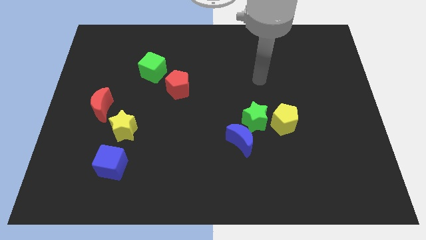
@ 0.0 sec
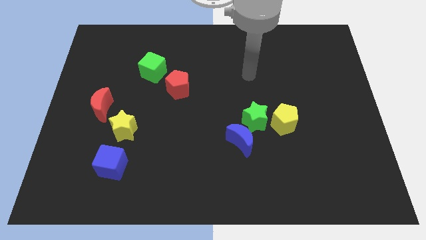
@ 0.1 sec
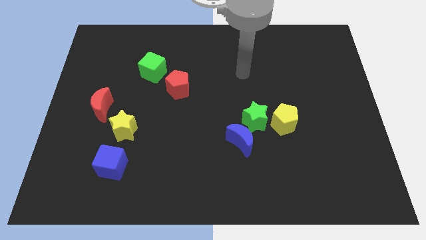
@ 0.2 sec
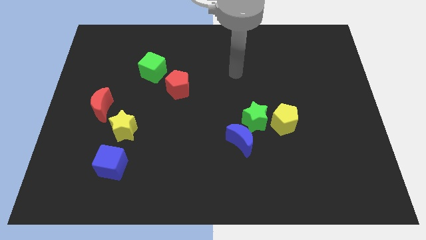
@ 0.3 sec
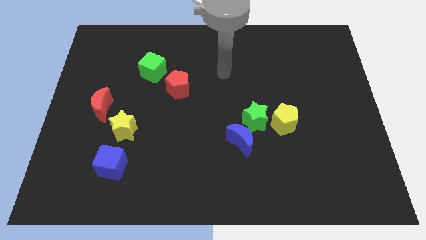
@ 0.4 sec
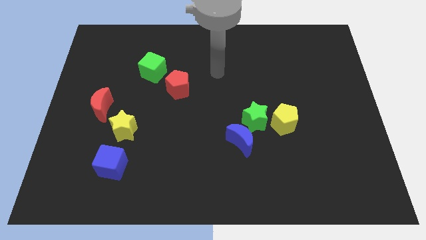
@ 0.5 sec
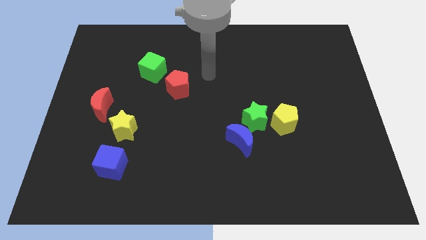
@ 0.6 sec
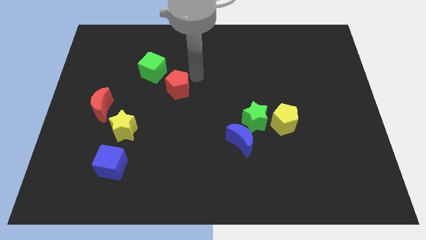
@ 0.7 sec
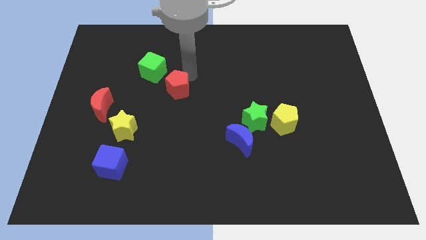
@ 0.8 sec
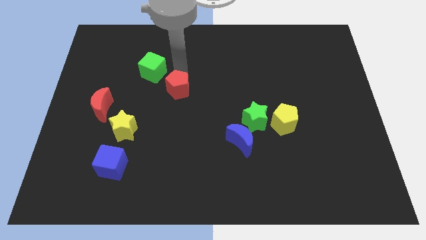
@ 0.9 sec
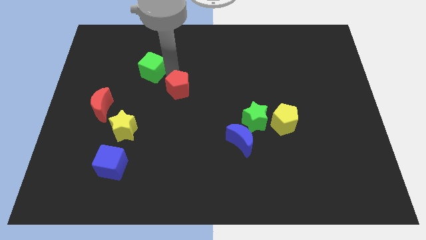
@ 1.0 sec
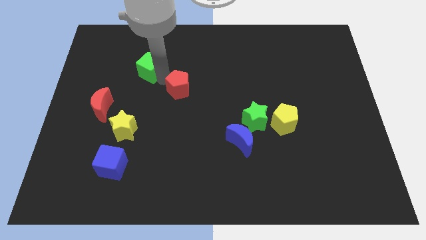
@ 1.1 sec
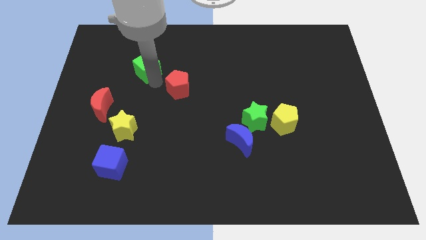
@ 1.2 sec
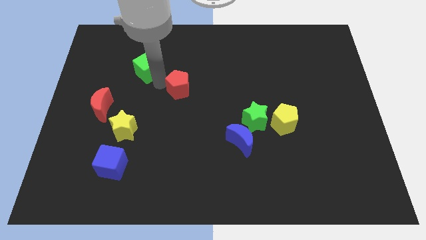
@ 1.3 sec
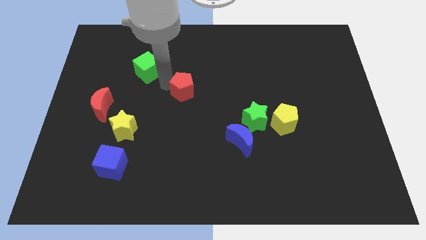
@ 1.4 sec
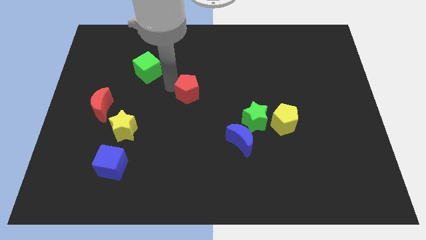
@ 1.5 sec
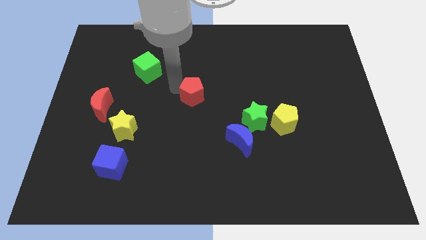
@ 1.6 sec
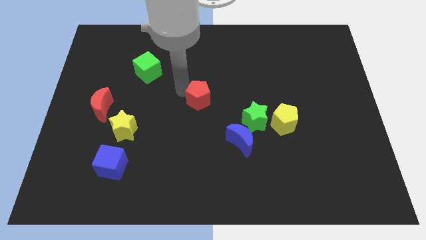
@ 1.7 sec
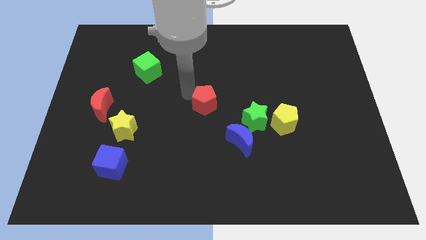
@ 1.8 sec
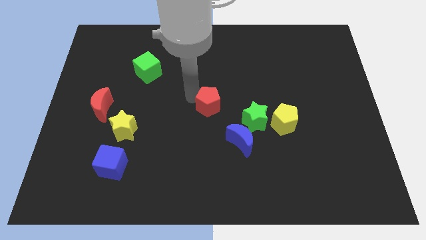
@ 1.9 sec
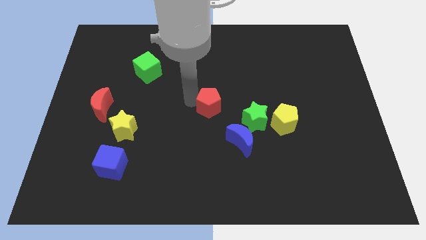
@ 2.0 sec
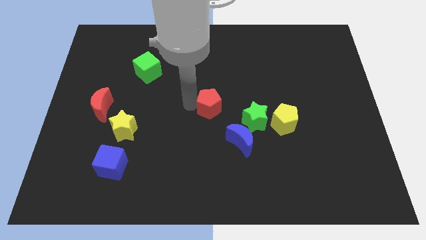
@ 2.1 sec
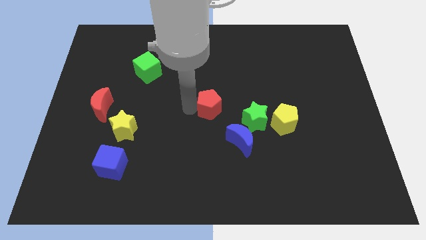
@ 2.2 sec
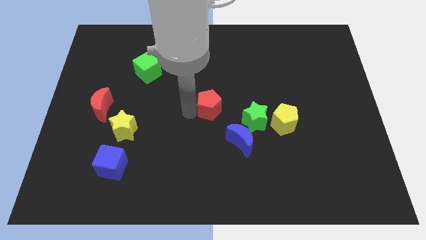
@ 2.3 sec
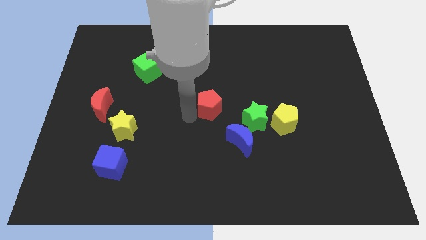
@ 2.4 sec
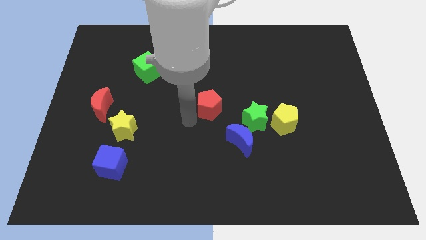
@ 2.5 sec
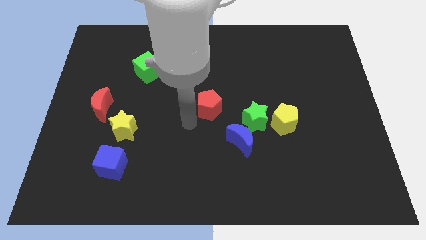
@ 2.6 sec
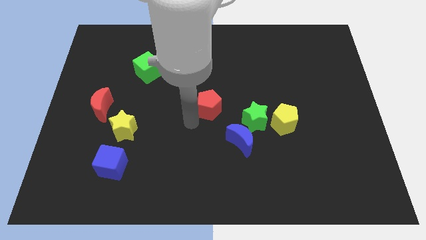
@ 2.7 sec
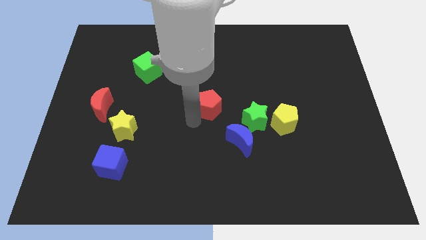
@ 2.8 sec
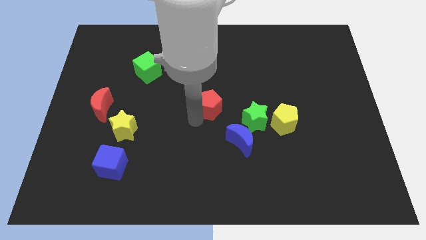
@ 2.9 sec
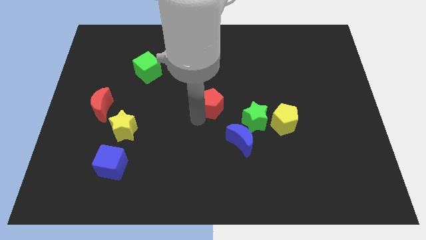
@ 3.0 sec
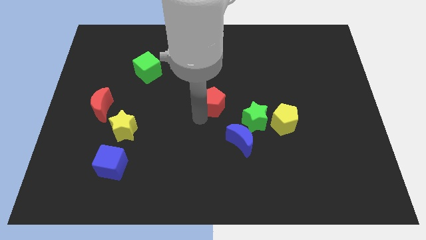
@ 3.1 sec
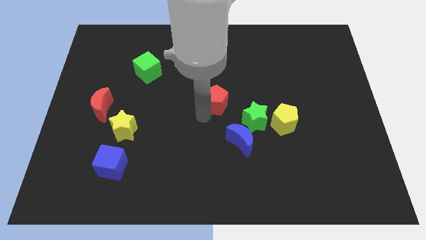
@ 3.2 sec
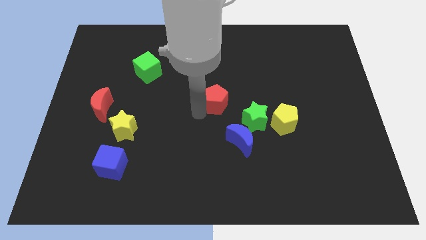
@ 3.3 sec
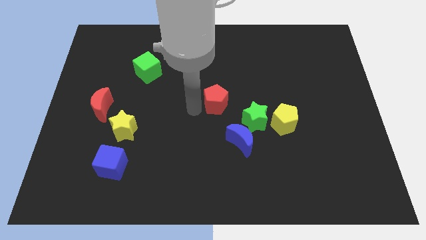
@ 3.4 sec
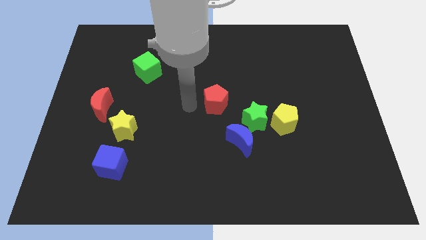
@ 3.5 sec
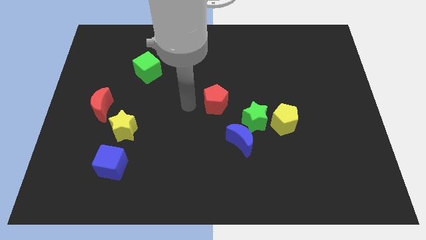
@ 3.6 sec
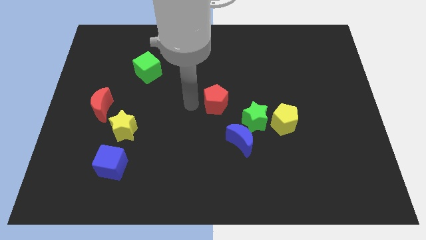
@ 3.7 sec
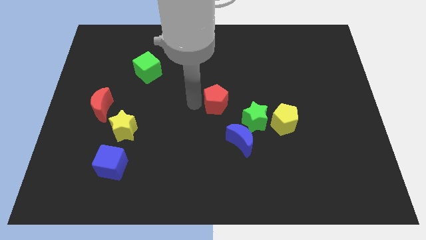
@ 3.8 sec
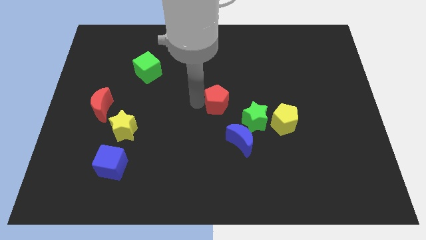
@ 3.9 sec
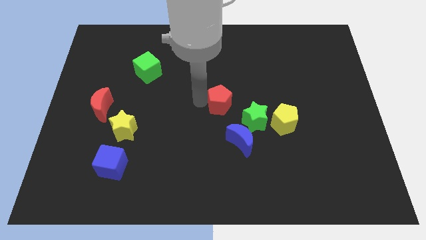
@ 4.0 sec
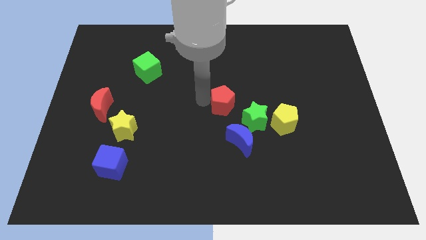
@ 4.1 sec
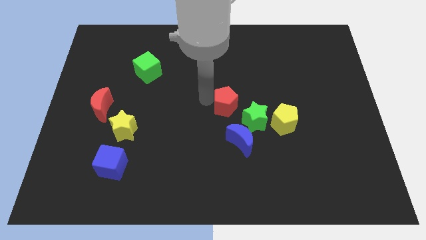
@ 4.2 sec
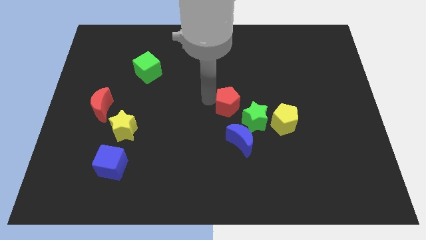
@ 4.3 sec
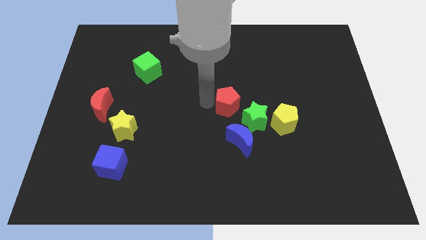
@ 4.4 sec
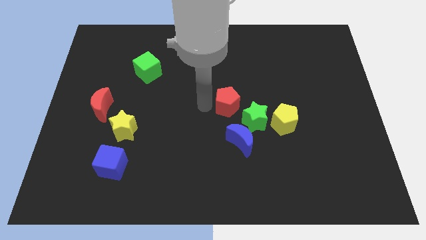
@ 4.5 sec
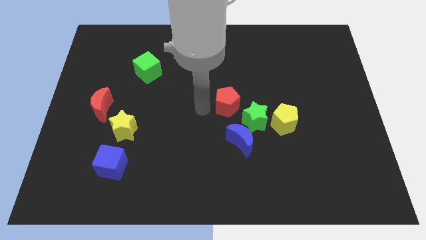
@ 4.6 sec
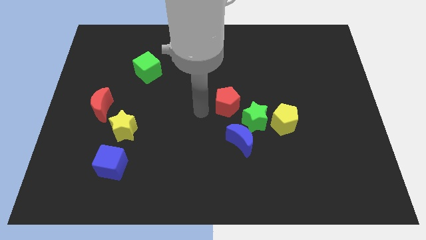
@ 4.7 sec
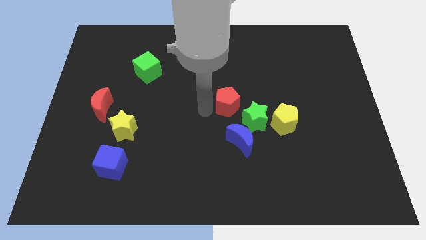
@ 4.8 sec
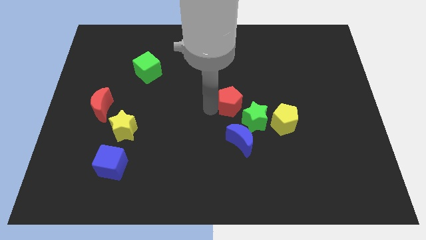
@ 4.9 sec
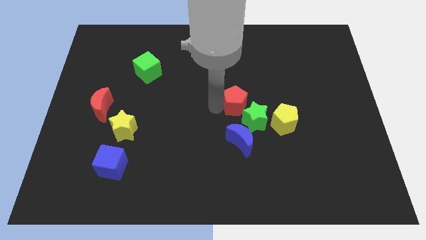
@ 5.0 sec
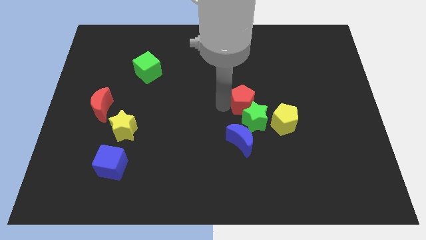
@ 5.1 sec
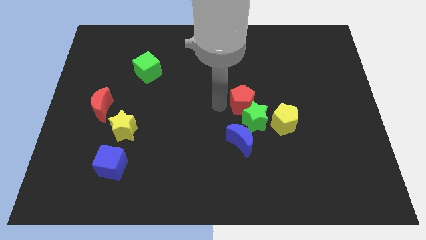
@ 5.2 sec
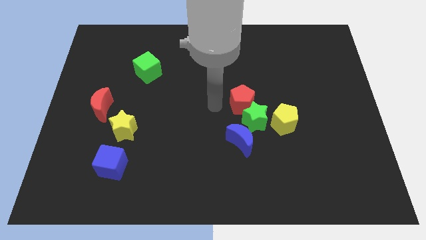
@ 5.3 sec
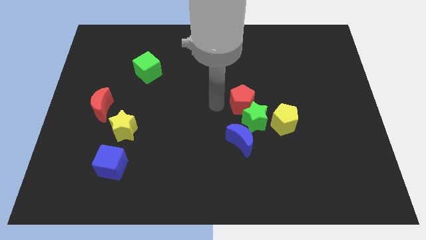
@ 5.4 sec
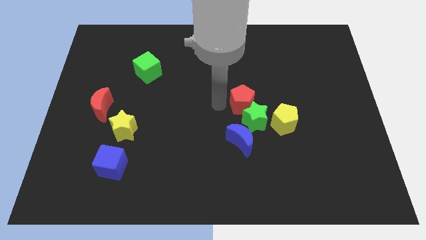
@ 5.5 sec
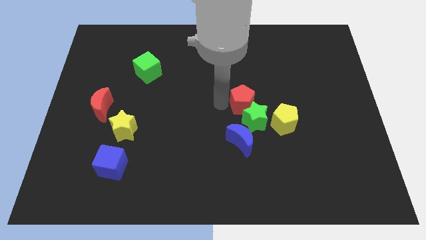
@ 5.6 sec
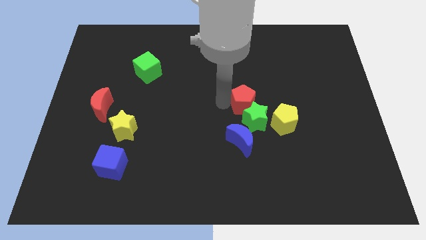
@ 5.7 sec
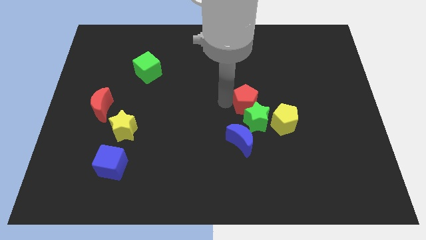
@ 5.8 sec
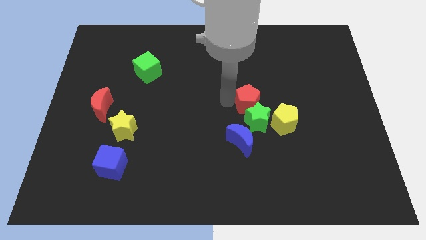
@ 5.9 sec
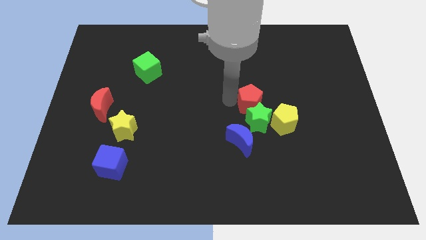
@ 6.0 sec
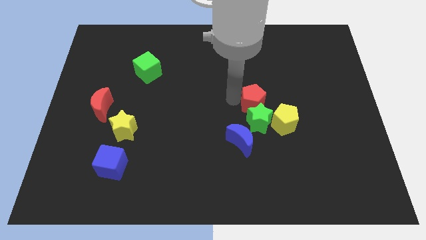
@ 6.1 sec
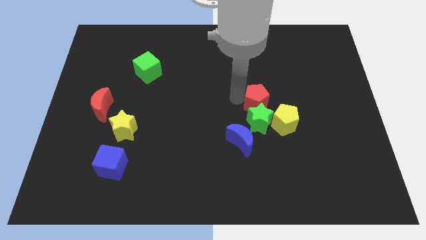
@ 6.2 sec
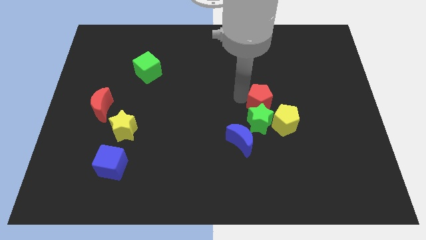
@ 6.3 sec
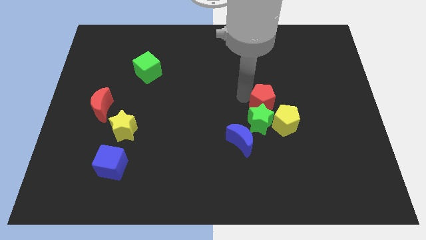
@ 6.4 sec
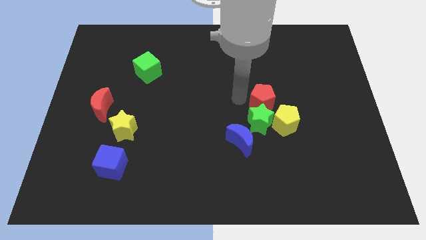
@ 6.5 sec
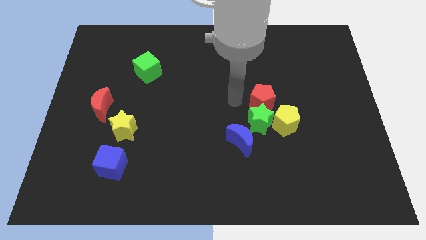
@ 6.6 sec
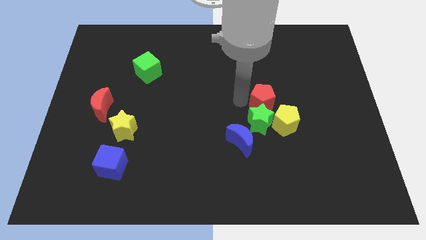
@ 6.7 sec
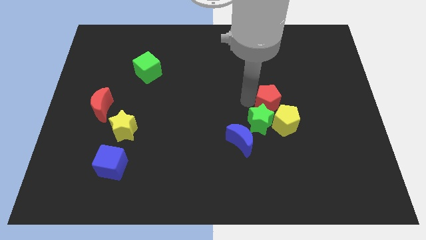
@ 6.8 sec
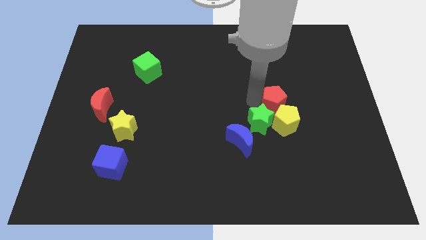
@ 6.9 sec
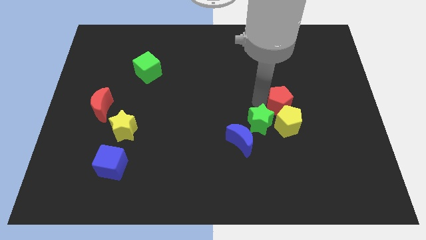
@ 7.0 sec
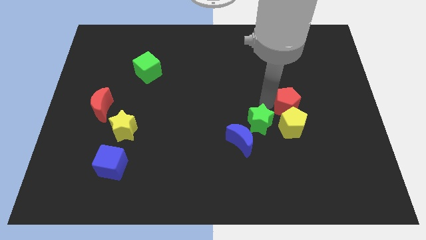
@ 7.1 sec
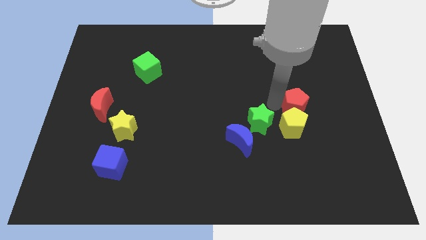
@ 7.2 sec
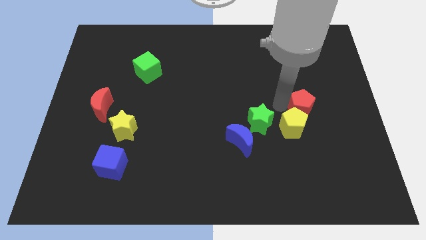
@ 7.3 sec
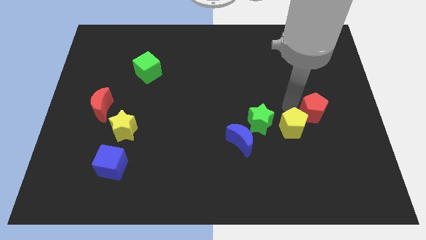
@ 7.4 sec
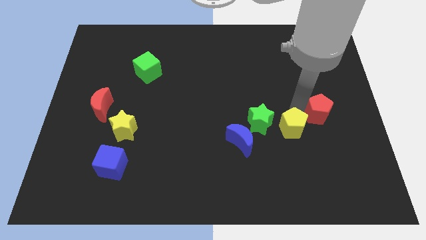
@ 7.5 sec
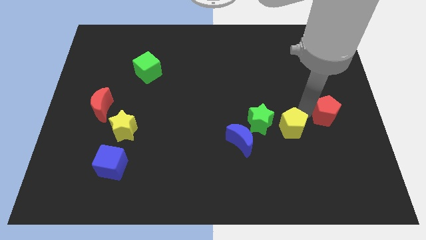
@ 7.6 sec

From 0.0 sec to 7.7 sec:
put the red pentagon to the right side of the board
